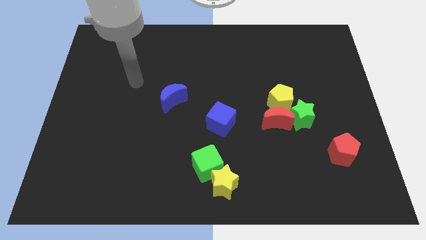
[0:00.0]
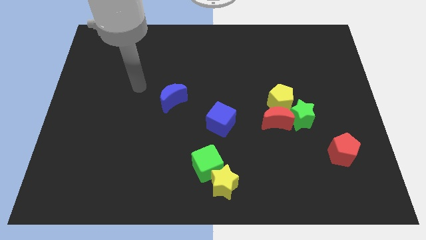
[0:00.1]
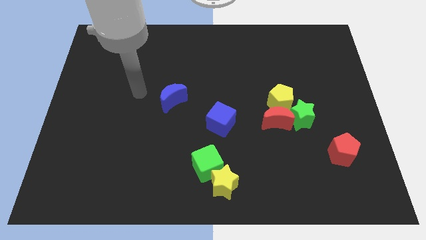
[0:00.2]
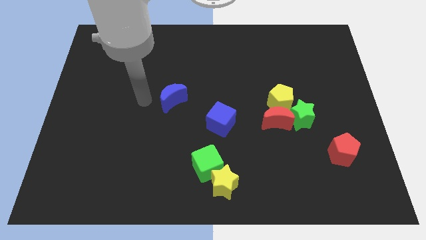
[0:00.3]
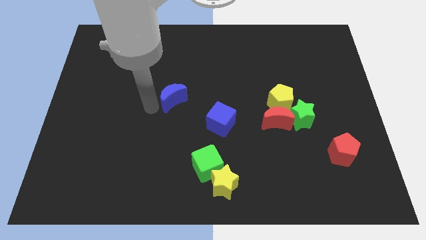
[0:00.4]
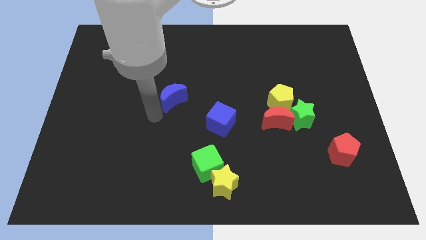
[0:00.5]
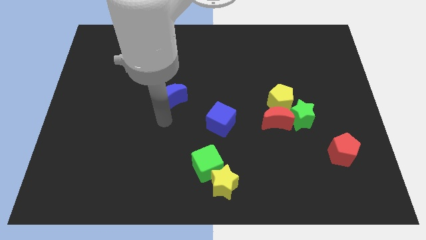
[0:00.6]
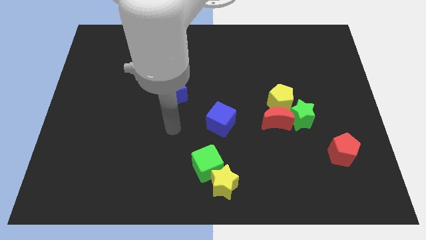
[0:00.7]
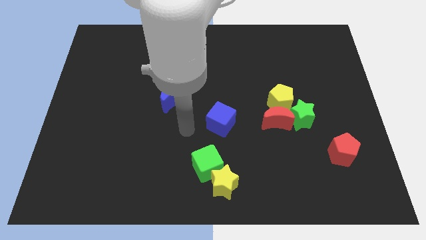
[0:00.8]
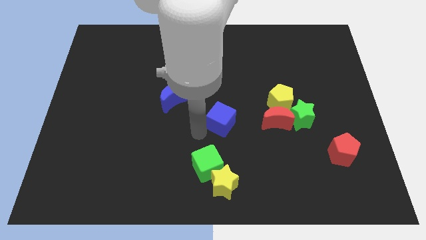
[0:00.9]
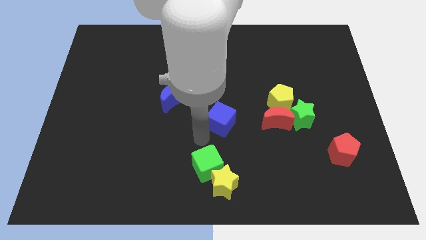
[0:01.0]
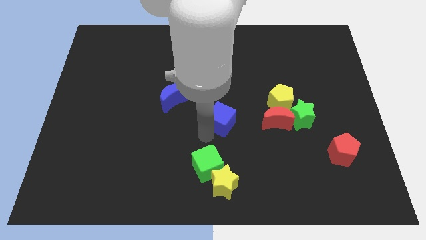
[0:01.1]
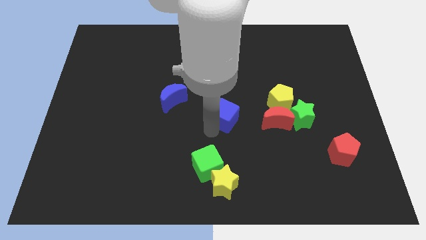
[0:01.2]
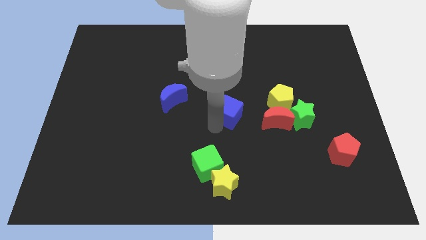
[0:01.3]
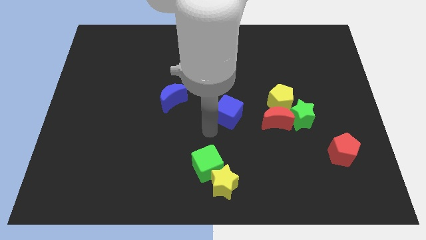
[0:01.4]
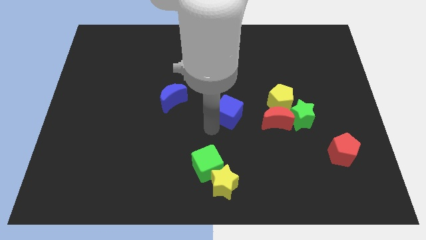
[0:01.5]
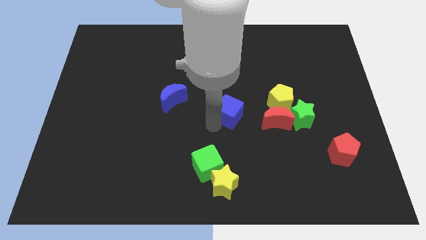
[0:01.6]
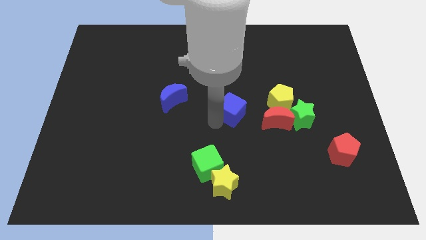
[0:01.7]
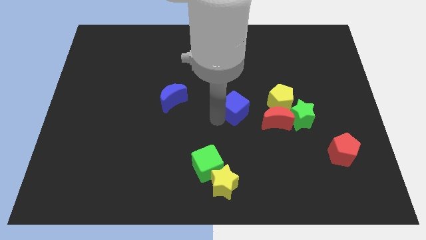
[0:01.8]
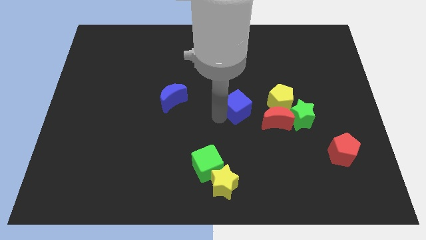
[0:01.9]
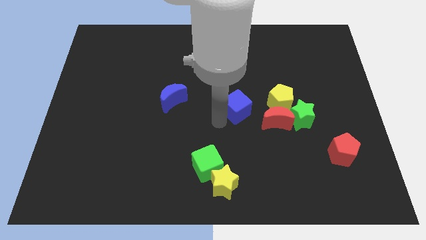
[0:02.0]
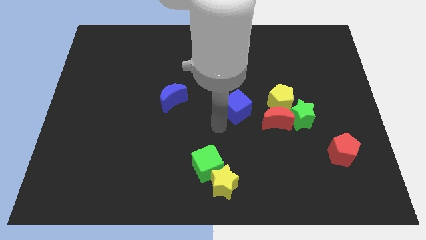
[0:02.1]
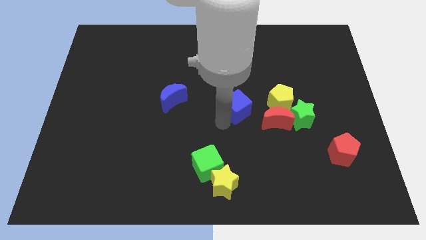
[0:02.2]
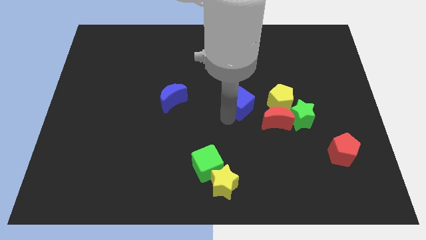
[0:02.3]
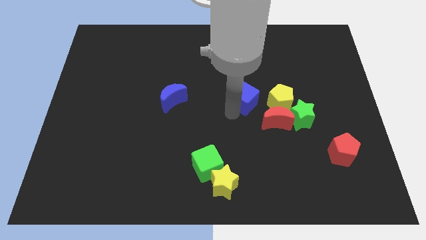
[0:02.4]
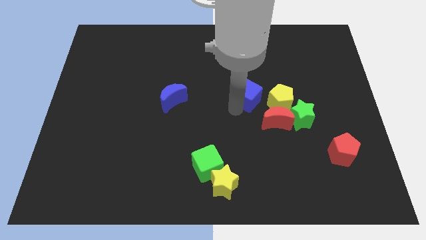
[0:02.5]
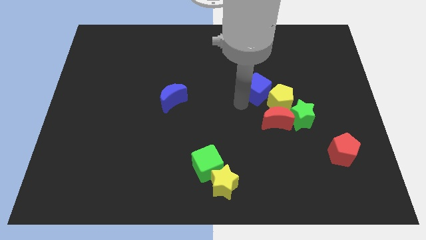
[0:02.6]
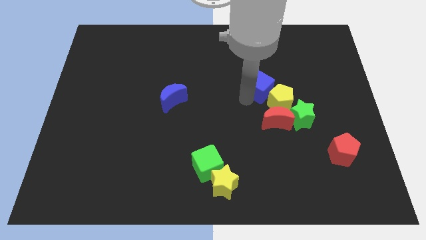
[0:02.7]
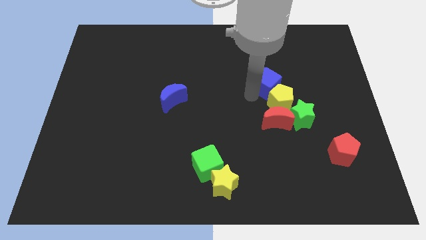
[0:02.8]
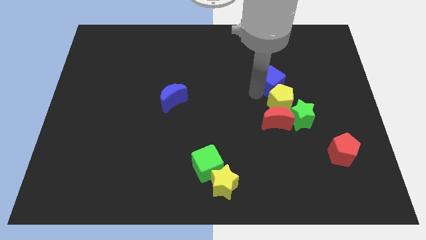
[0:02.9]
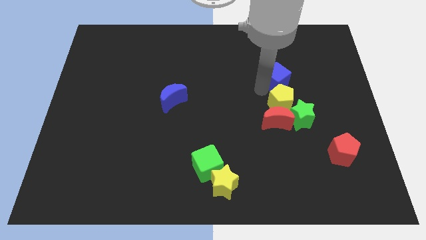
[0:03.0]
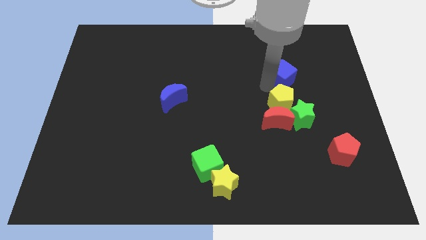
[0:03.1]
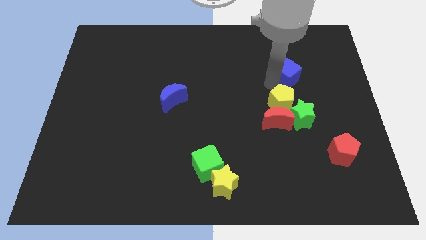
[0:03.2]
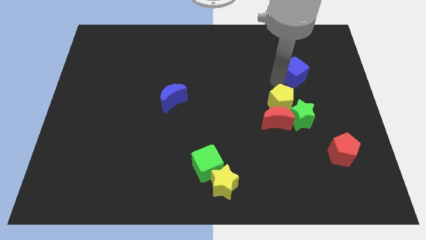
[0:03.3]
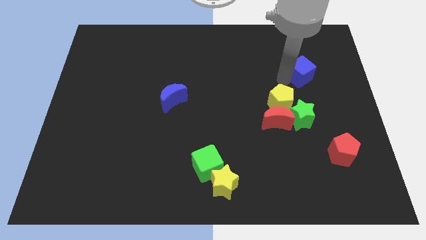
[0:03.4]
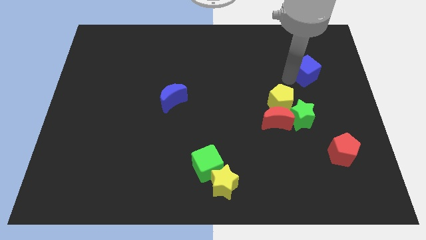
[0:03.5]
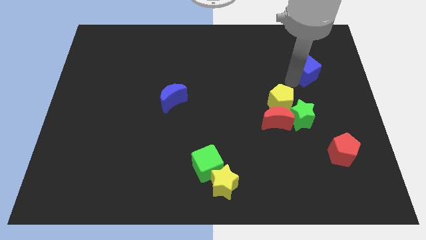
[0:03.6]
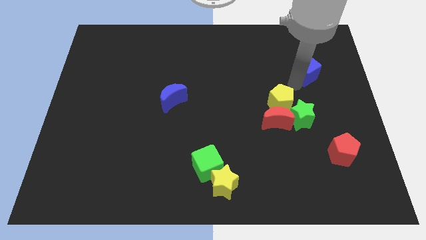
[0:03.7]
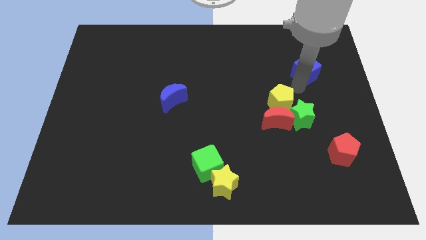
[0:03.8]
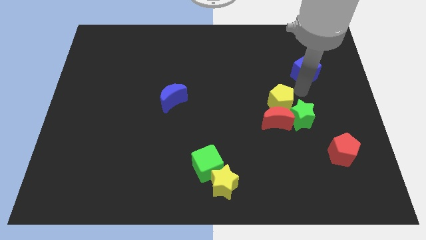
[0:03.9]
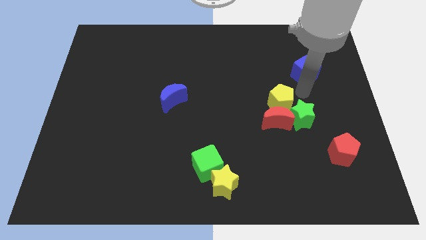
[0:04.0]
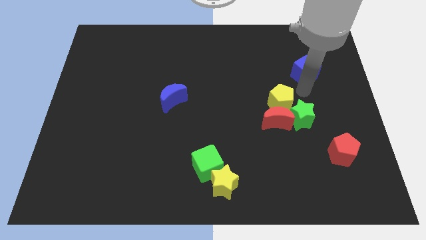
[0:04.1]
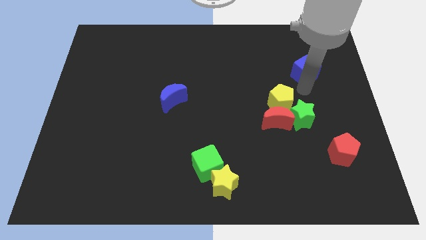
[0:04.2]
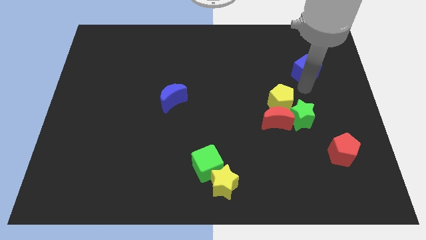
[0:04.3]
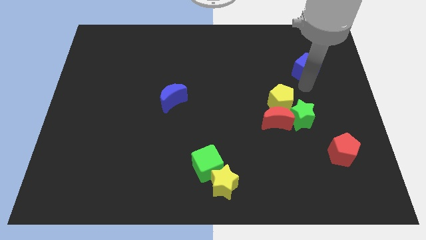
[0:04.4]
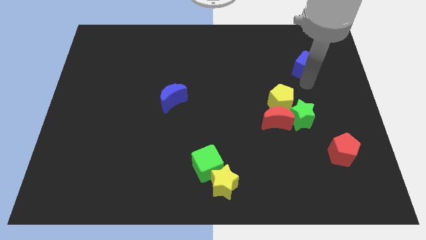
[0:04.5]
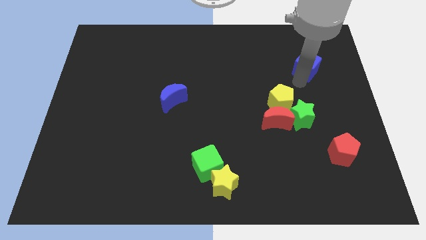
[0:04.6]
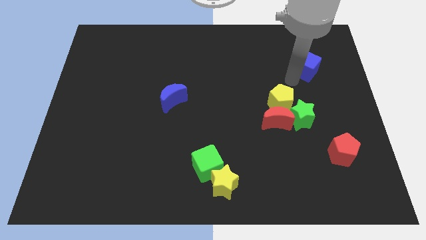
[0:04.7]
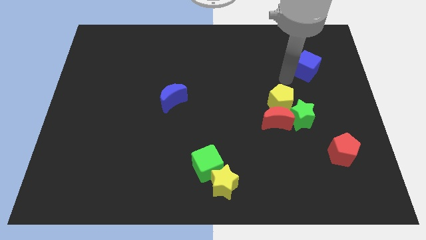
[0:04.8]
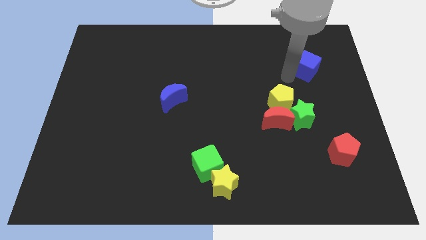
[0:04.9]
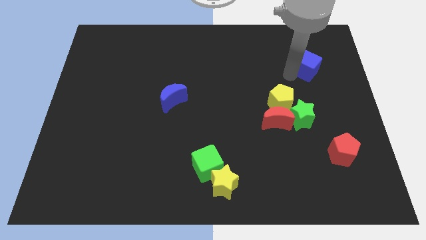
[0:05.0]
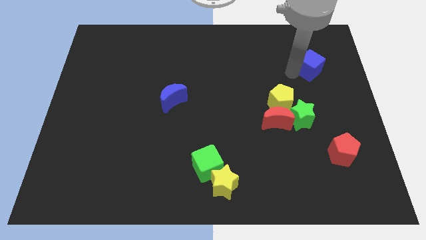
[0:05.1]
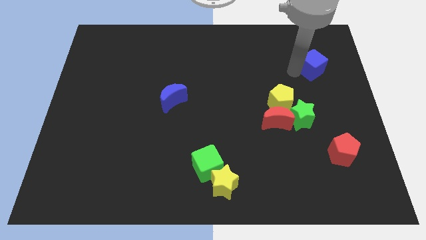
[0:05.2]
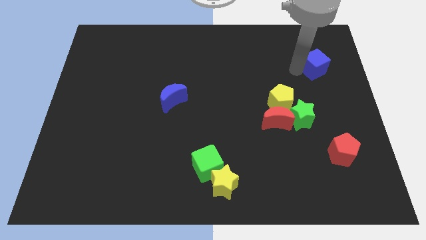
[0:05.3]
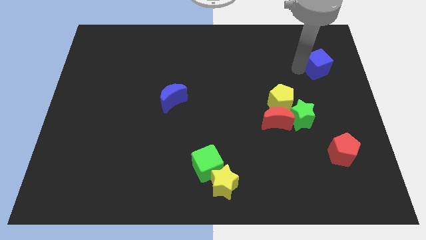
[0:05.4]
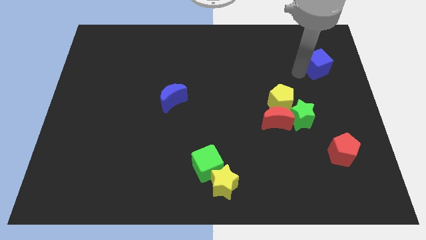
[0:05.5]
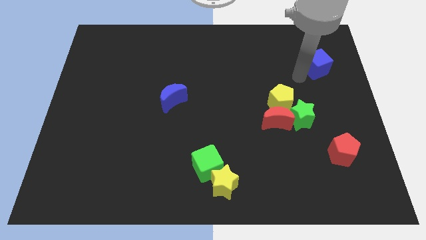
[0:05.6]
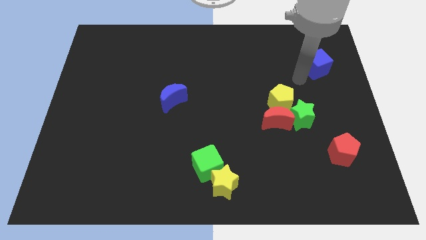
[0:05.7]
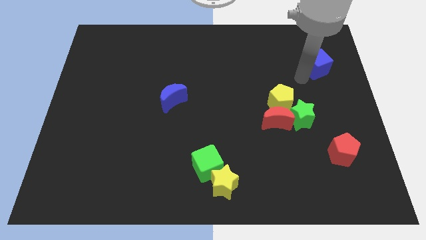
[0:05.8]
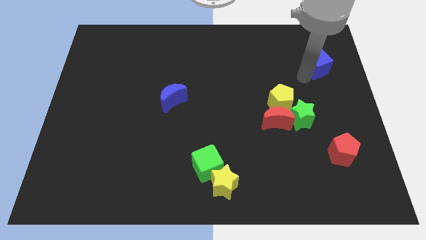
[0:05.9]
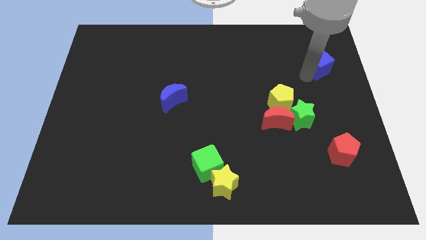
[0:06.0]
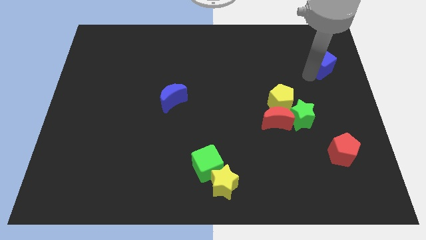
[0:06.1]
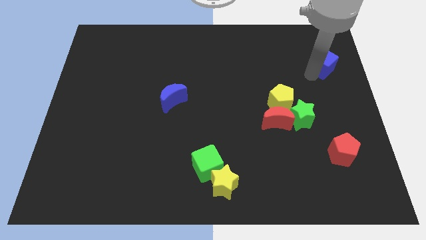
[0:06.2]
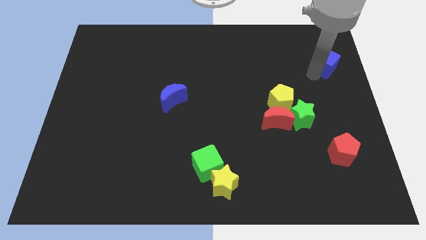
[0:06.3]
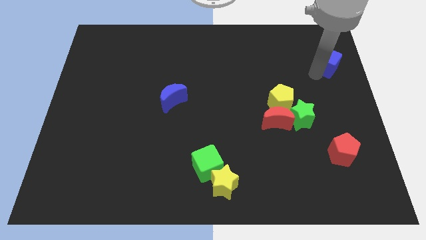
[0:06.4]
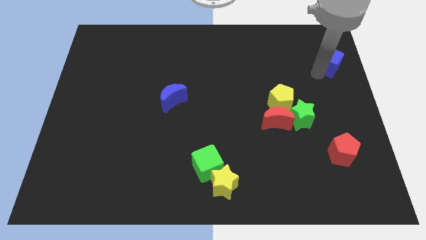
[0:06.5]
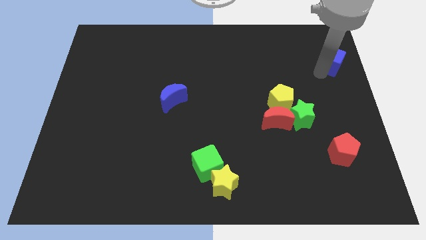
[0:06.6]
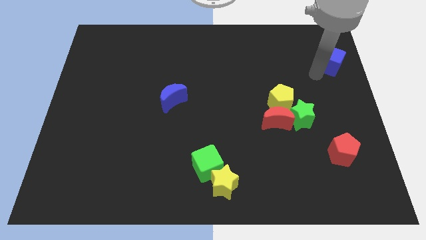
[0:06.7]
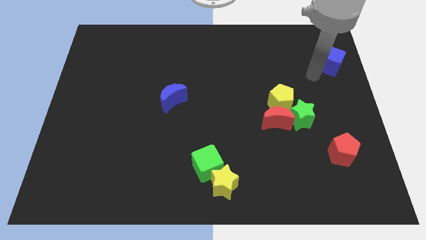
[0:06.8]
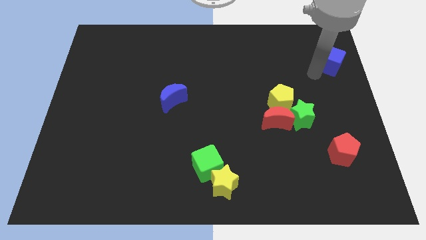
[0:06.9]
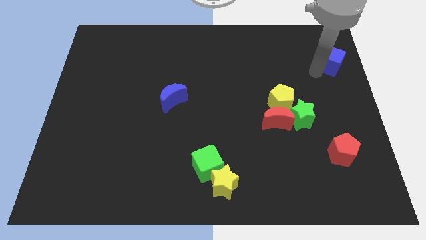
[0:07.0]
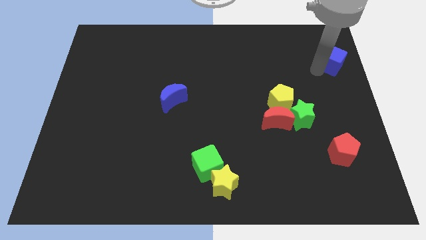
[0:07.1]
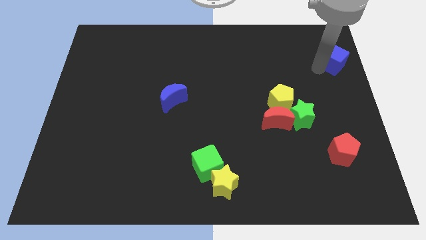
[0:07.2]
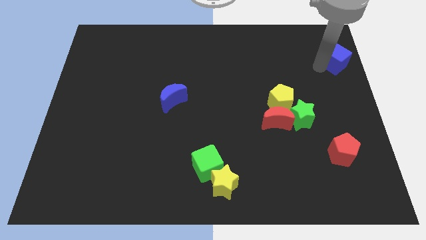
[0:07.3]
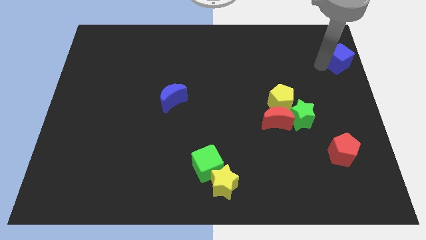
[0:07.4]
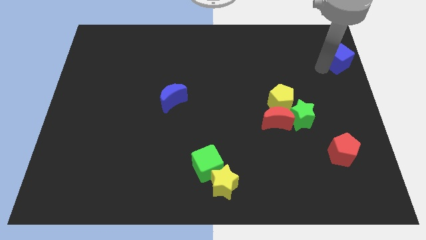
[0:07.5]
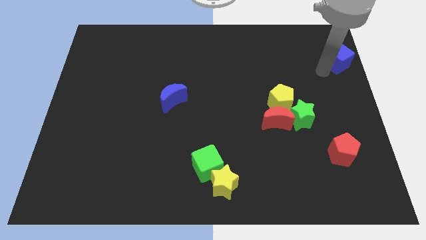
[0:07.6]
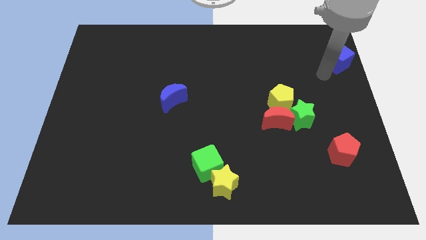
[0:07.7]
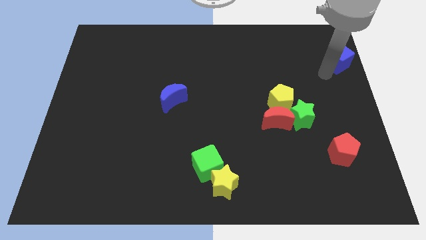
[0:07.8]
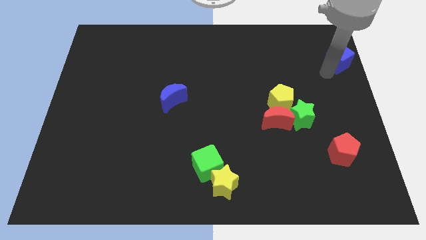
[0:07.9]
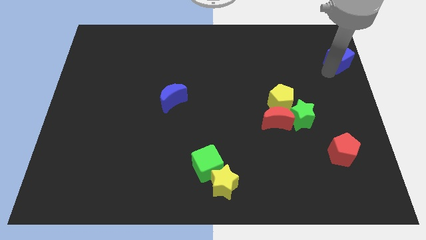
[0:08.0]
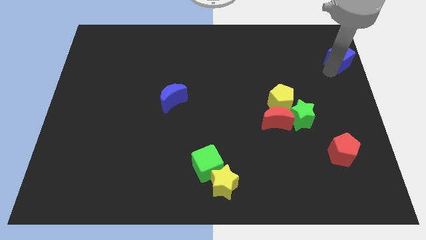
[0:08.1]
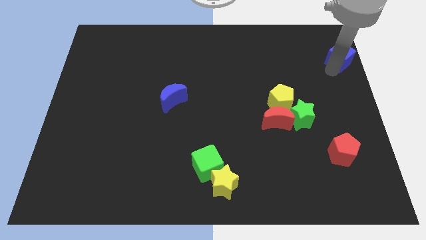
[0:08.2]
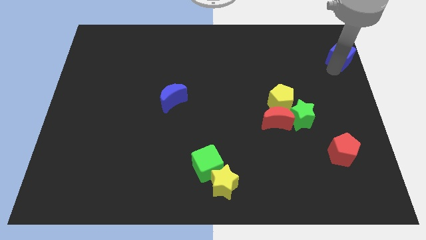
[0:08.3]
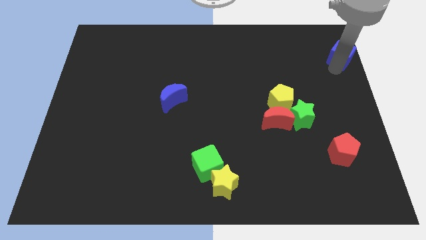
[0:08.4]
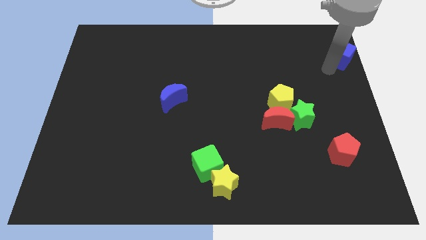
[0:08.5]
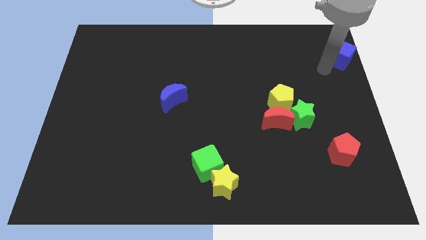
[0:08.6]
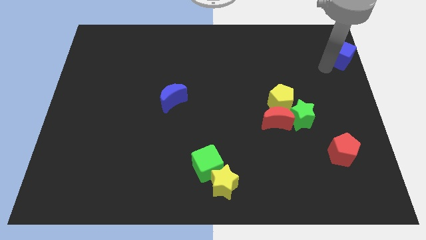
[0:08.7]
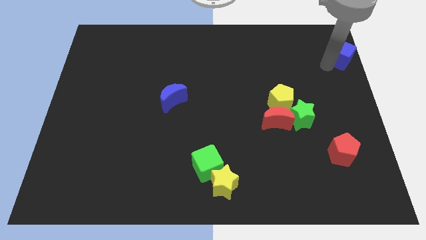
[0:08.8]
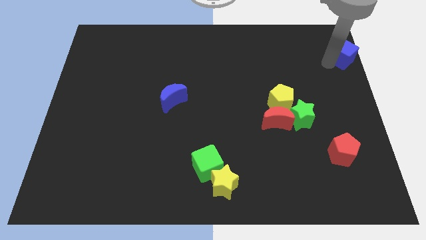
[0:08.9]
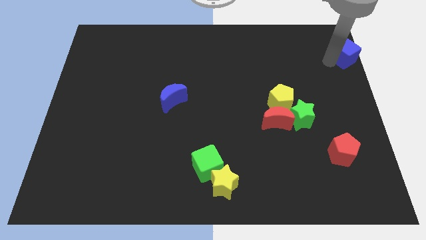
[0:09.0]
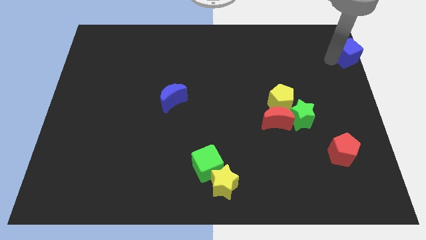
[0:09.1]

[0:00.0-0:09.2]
put the blue cube to the top right
